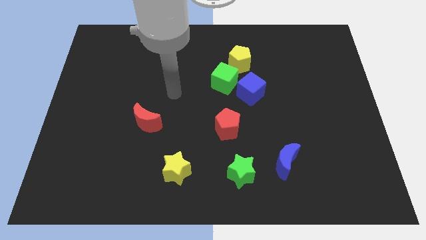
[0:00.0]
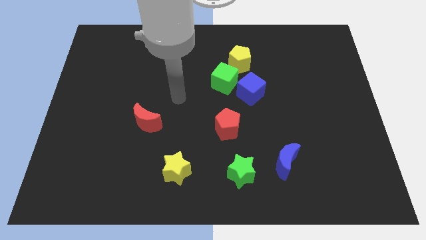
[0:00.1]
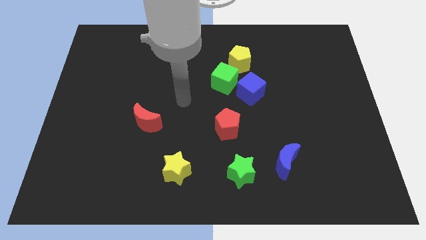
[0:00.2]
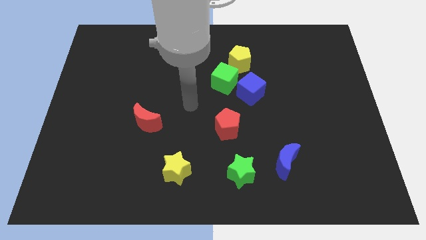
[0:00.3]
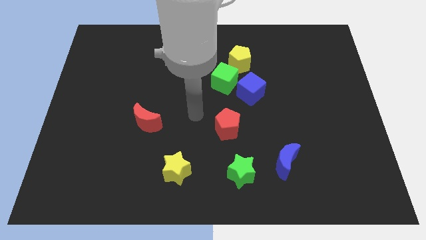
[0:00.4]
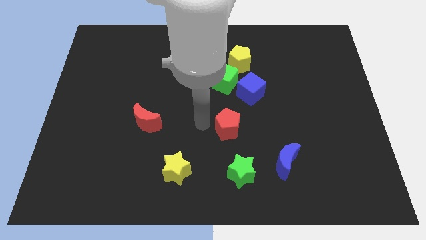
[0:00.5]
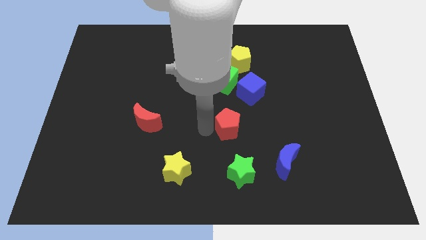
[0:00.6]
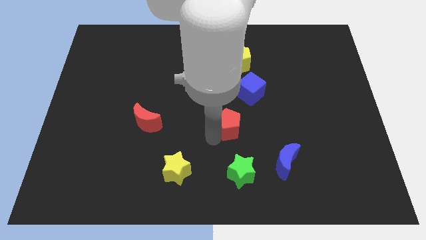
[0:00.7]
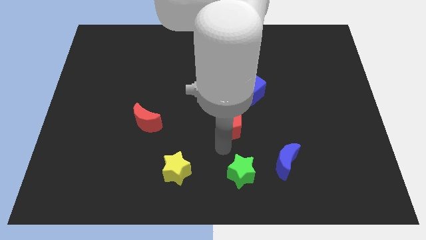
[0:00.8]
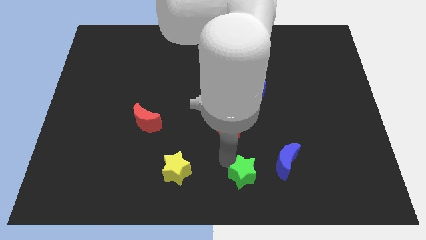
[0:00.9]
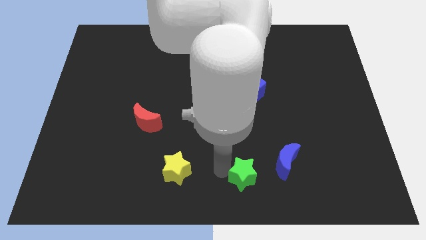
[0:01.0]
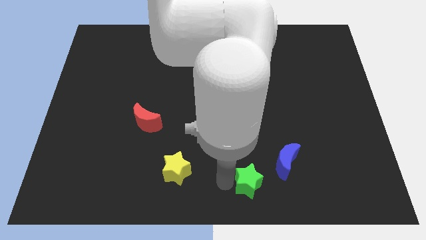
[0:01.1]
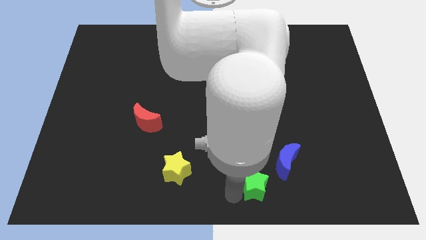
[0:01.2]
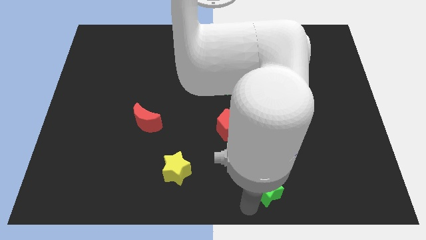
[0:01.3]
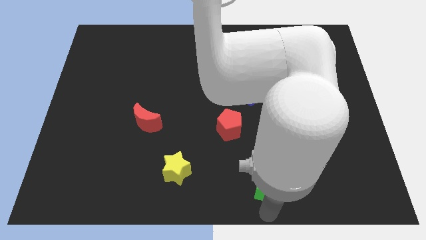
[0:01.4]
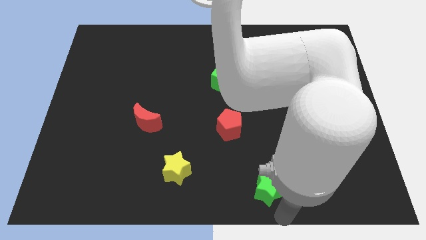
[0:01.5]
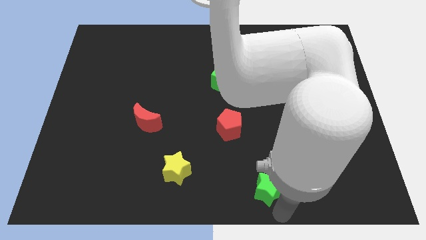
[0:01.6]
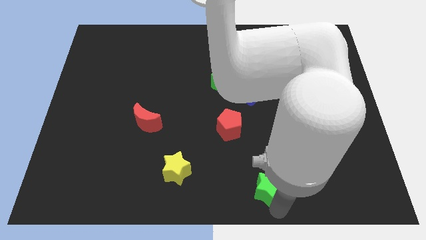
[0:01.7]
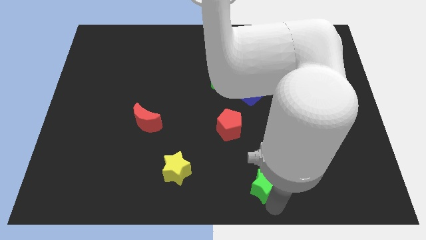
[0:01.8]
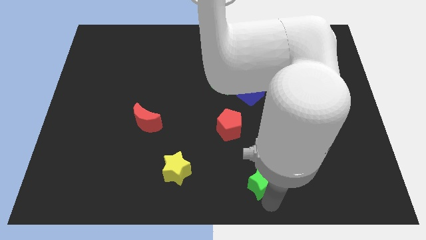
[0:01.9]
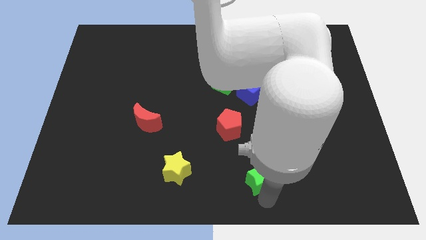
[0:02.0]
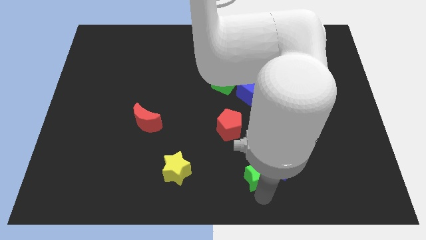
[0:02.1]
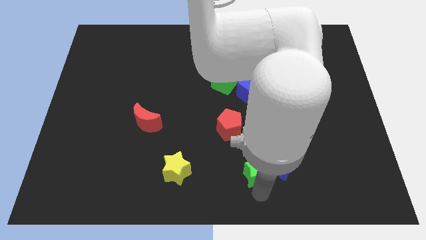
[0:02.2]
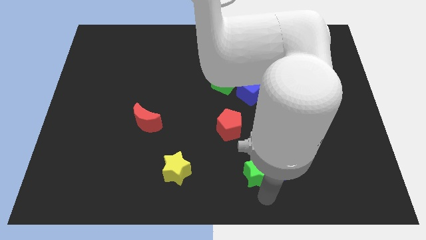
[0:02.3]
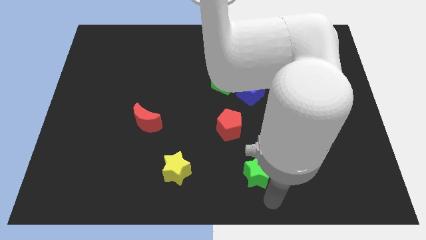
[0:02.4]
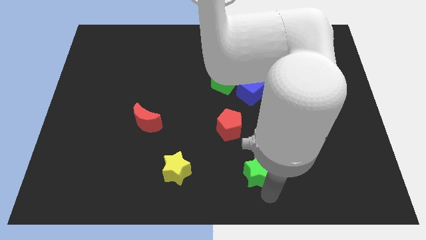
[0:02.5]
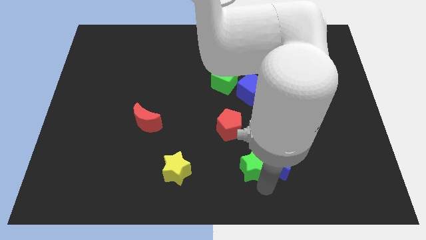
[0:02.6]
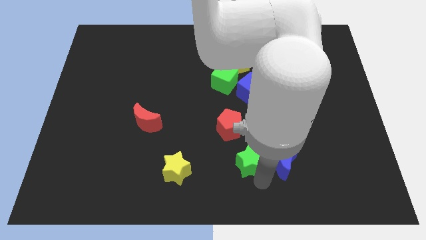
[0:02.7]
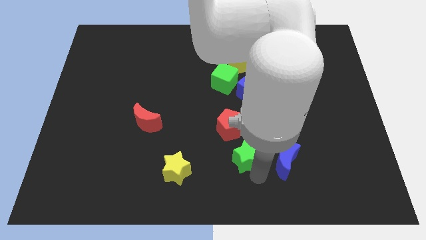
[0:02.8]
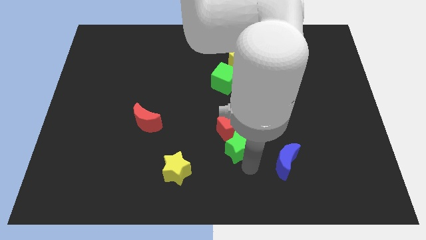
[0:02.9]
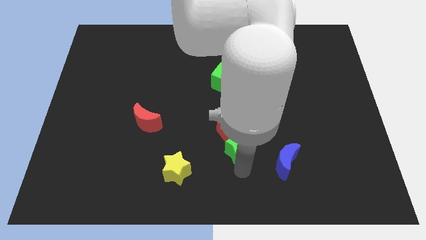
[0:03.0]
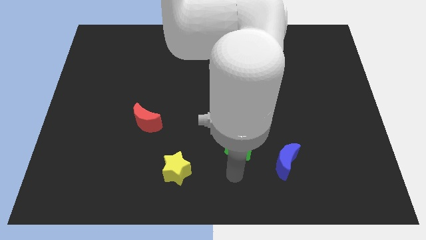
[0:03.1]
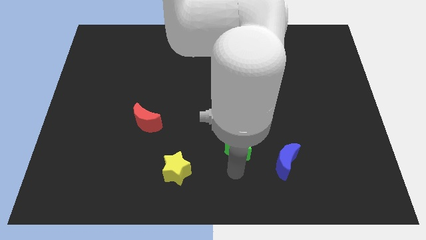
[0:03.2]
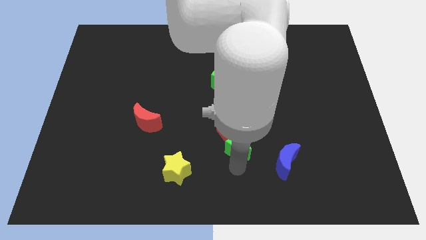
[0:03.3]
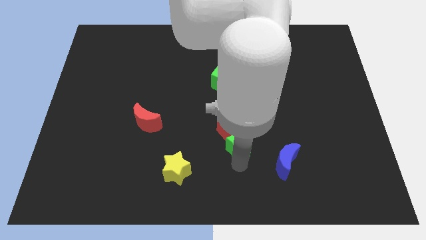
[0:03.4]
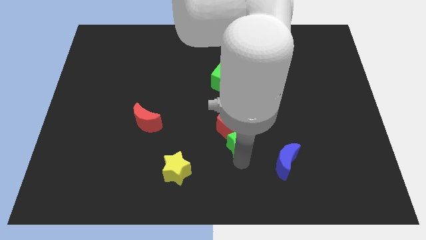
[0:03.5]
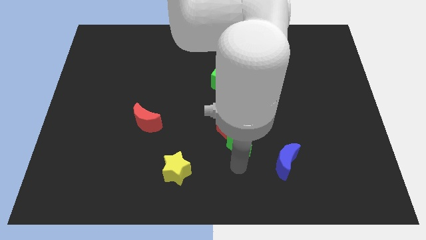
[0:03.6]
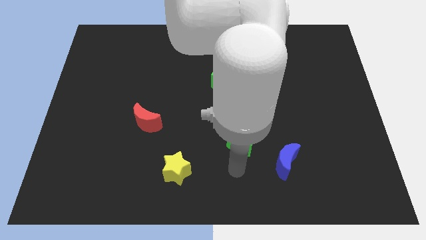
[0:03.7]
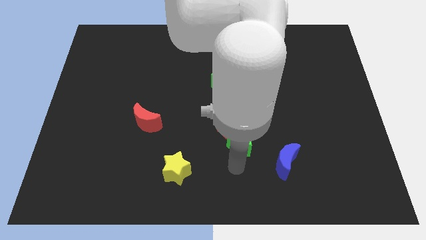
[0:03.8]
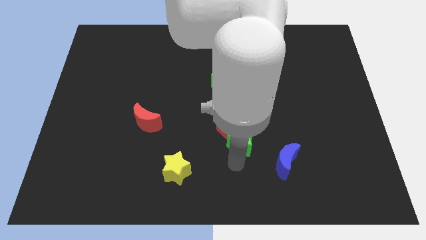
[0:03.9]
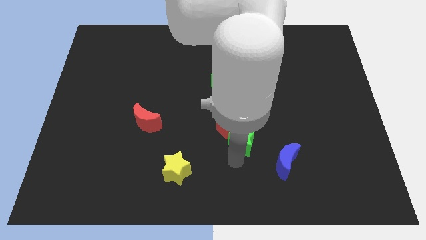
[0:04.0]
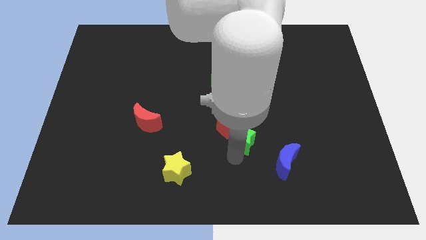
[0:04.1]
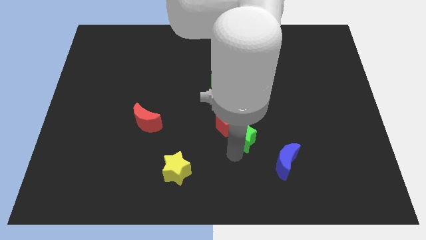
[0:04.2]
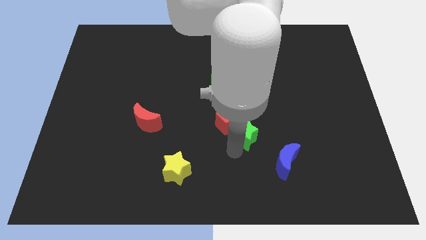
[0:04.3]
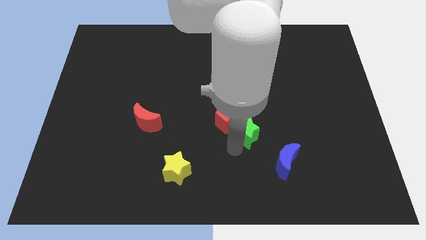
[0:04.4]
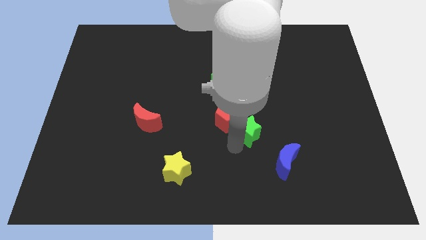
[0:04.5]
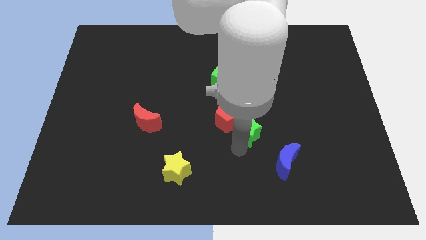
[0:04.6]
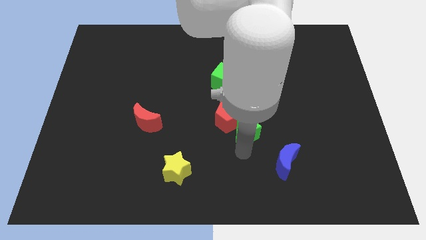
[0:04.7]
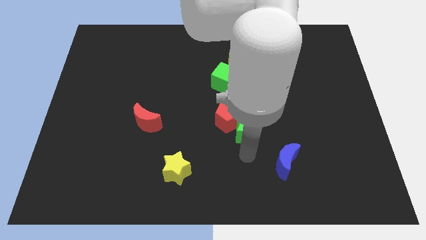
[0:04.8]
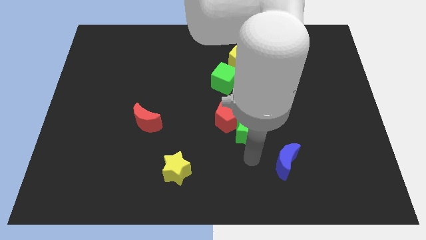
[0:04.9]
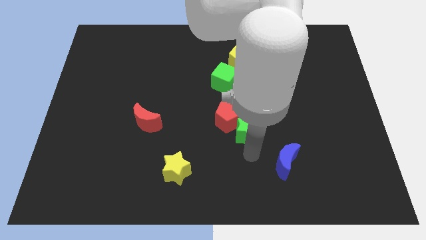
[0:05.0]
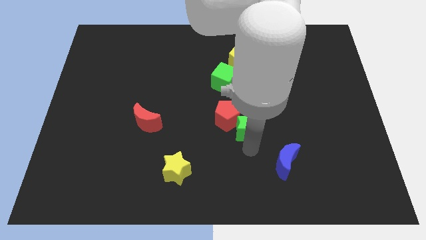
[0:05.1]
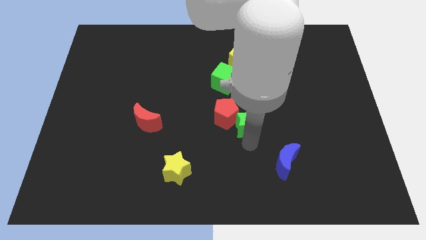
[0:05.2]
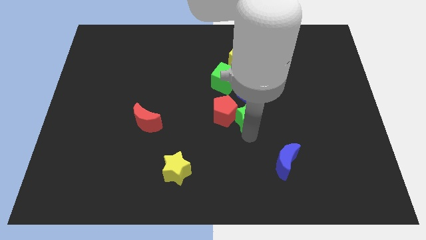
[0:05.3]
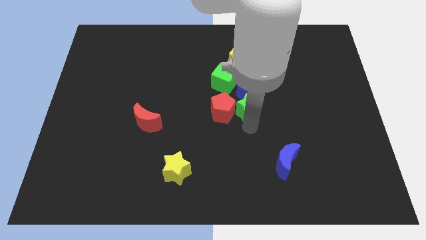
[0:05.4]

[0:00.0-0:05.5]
slide the green star to the bottom side of the yellow pentagon

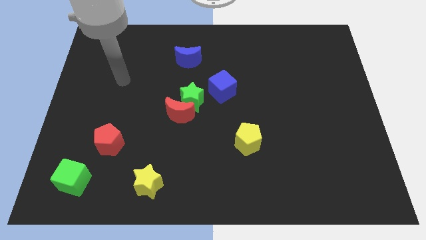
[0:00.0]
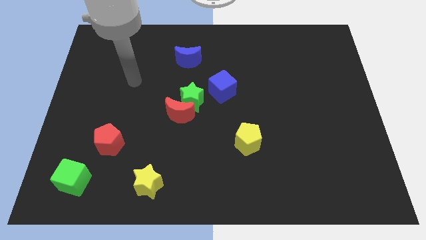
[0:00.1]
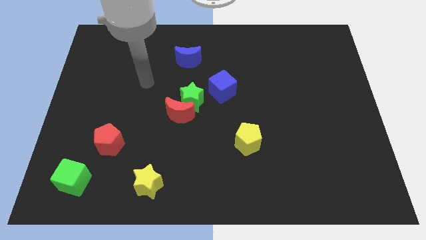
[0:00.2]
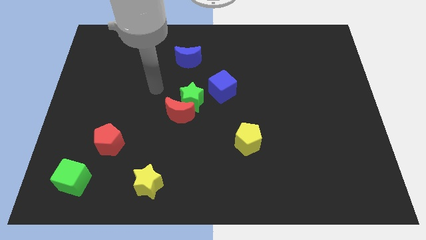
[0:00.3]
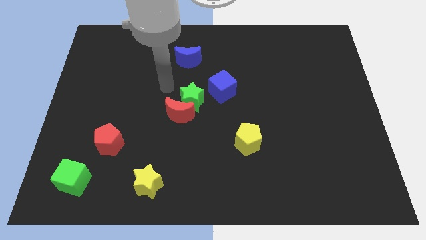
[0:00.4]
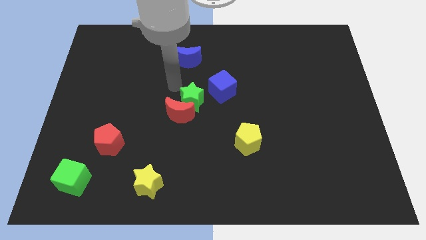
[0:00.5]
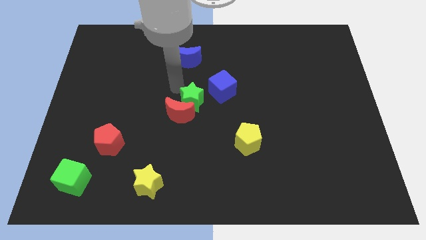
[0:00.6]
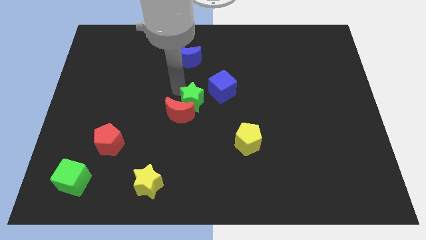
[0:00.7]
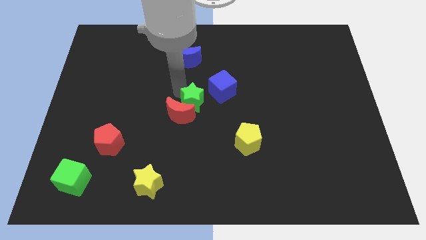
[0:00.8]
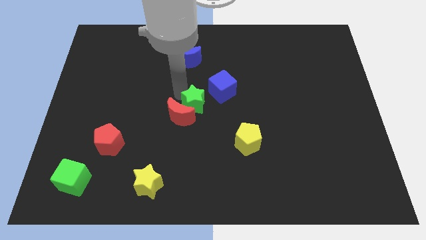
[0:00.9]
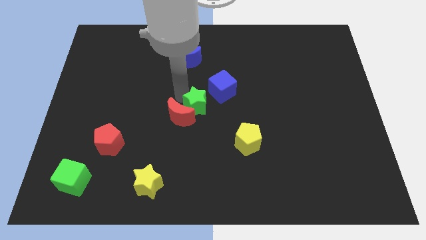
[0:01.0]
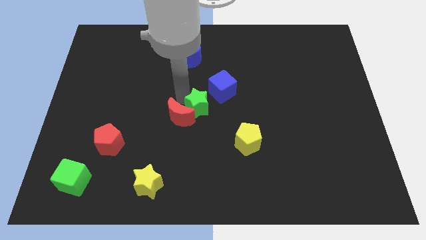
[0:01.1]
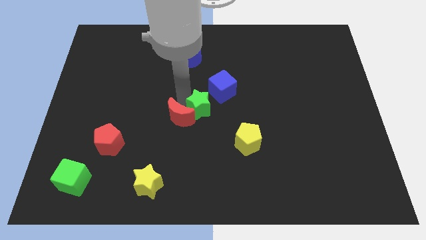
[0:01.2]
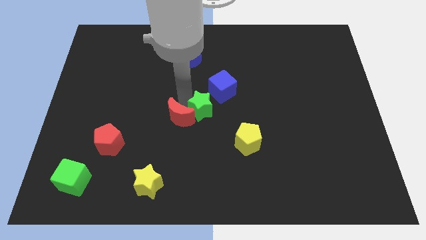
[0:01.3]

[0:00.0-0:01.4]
move the green star to the bottom side of the blue cube

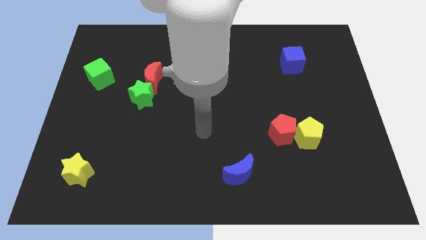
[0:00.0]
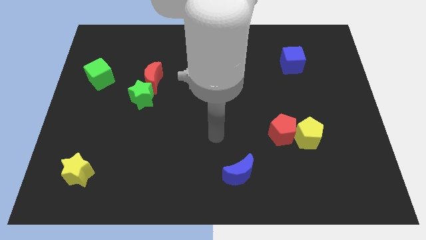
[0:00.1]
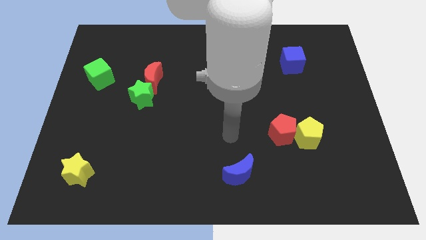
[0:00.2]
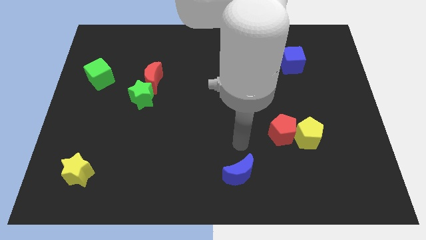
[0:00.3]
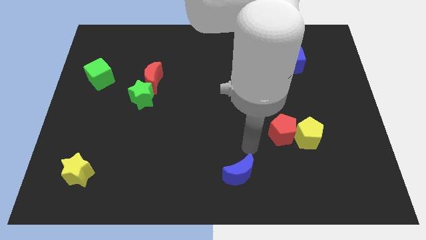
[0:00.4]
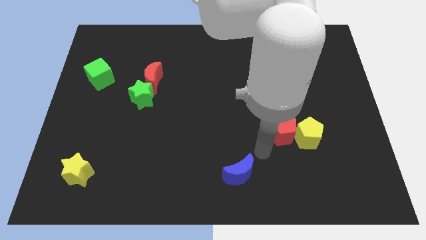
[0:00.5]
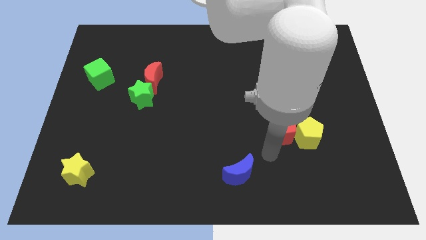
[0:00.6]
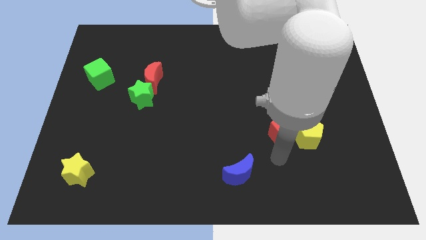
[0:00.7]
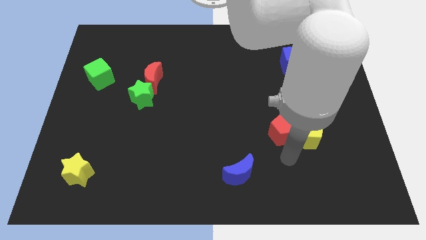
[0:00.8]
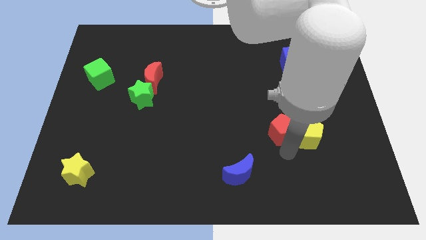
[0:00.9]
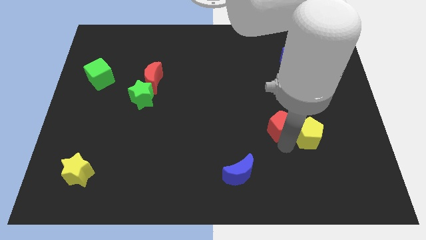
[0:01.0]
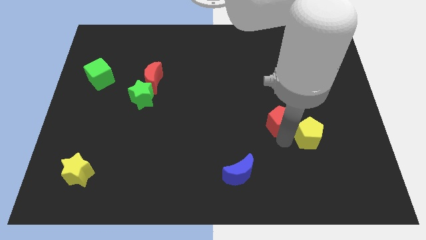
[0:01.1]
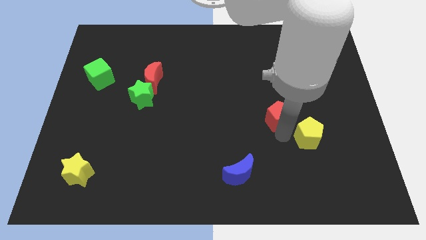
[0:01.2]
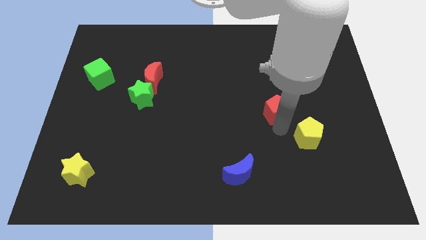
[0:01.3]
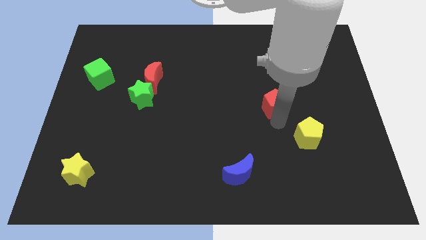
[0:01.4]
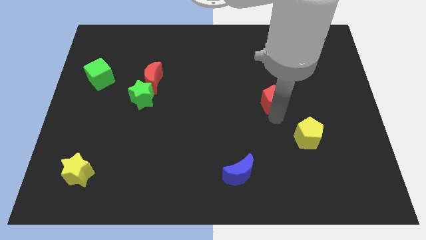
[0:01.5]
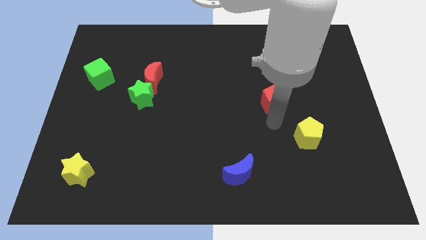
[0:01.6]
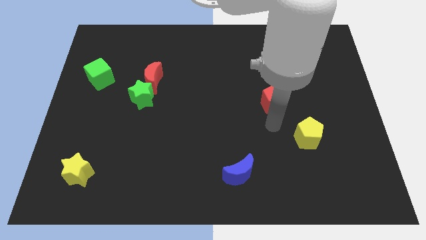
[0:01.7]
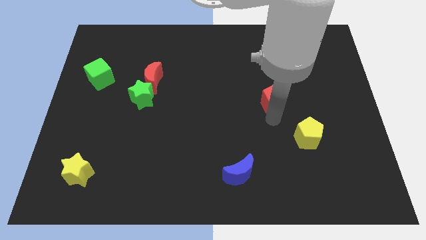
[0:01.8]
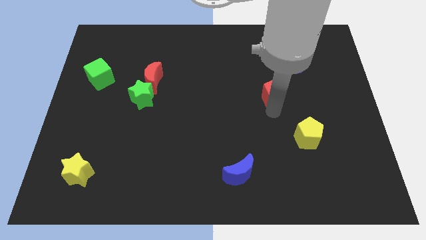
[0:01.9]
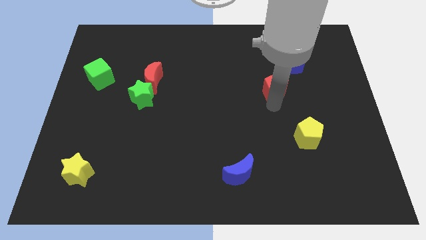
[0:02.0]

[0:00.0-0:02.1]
push the red pentagon diagonally down and to the left of the blue cube
